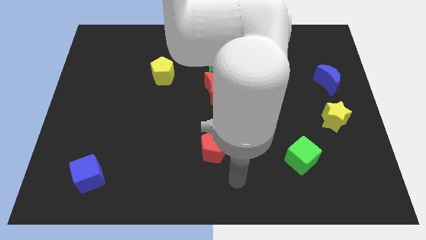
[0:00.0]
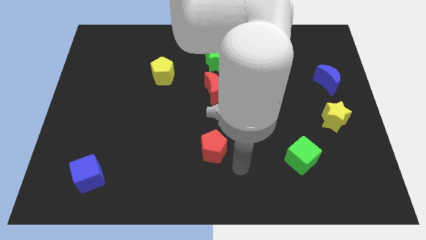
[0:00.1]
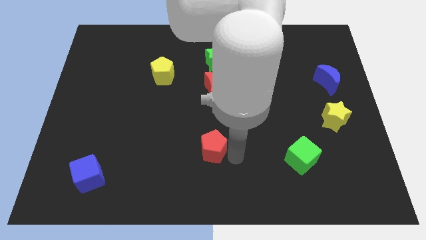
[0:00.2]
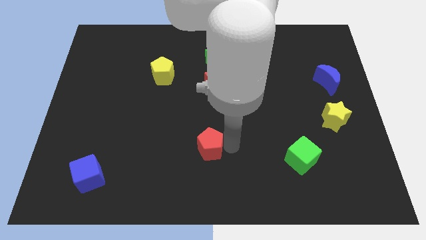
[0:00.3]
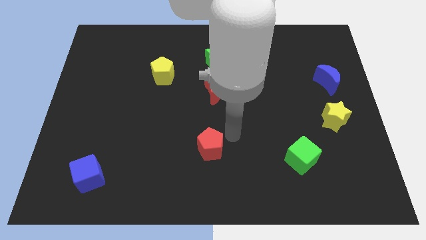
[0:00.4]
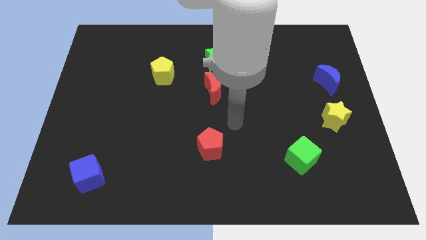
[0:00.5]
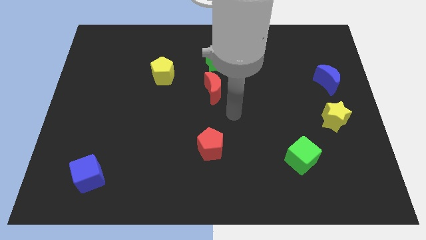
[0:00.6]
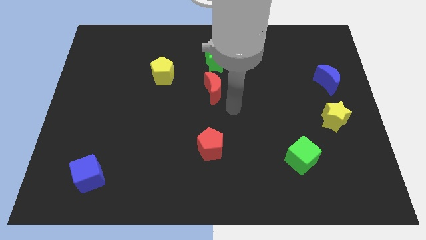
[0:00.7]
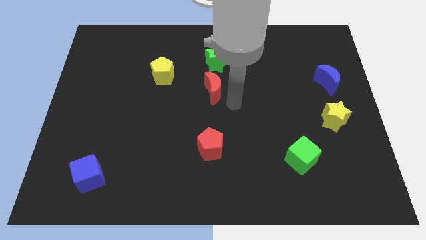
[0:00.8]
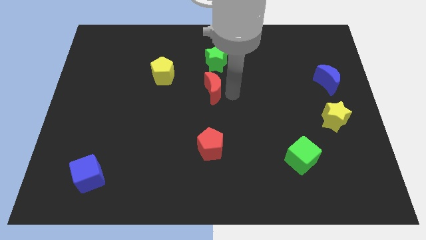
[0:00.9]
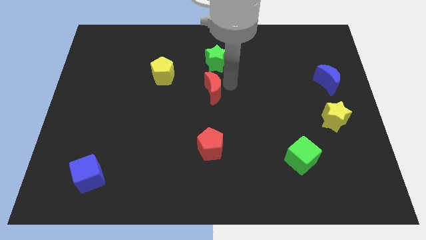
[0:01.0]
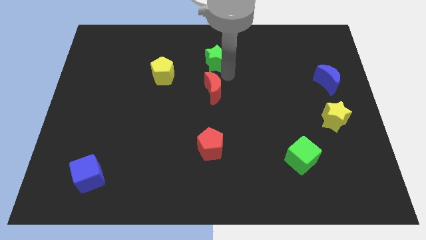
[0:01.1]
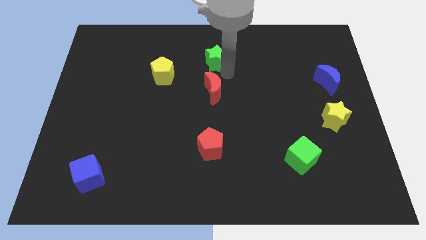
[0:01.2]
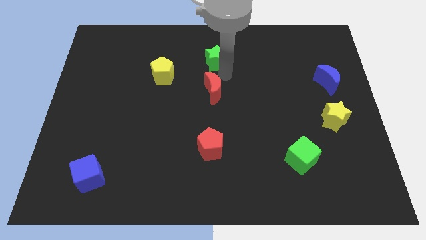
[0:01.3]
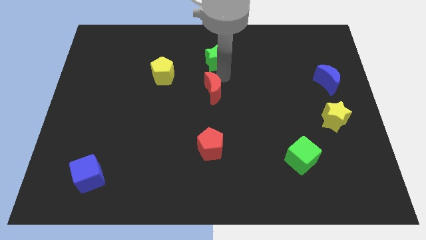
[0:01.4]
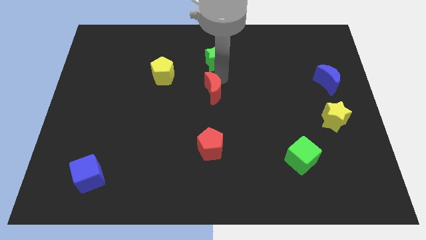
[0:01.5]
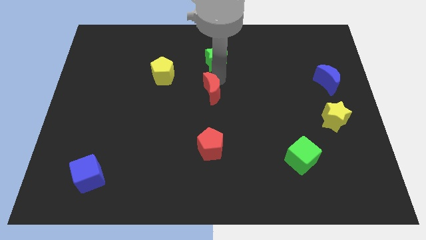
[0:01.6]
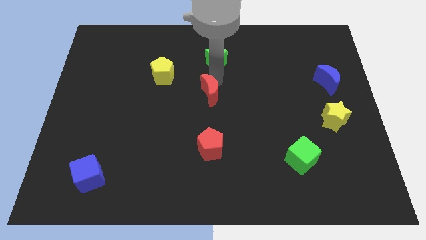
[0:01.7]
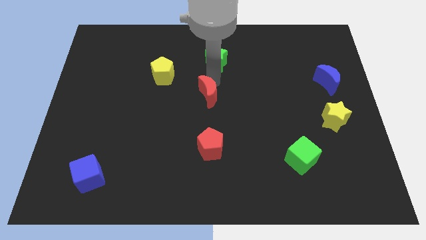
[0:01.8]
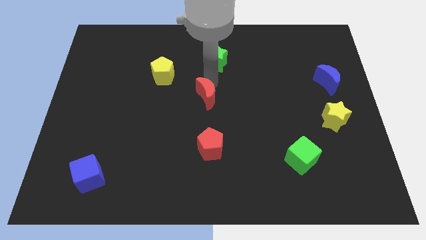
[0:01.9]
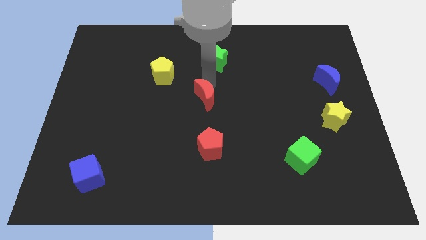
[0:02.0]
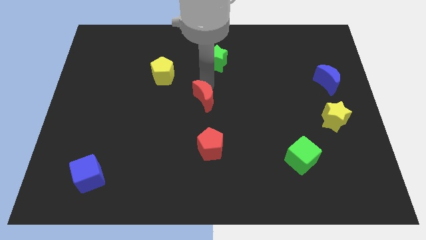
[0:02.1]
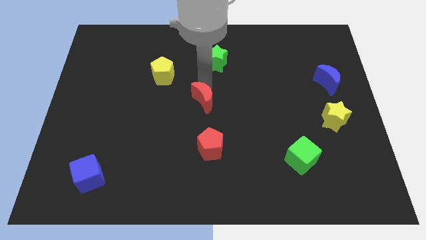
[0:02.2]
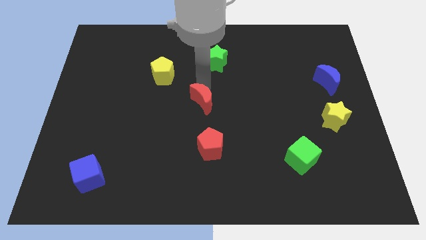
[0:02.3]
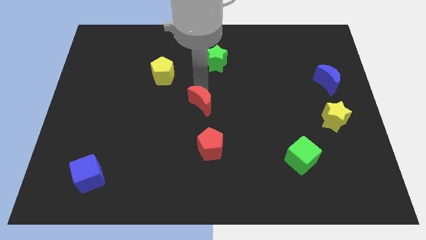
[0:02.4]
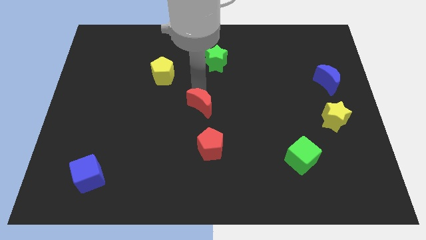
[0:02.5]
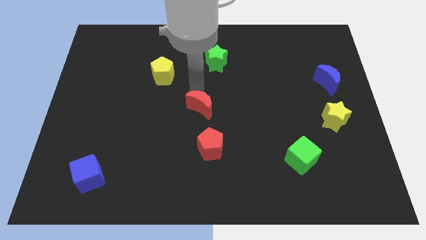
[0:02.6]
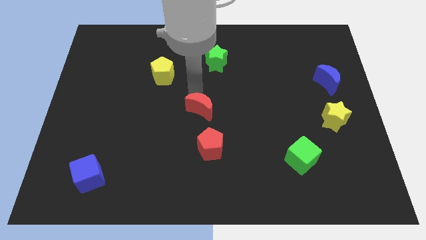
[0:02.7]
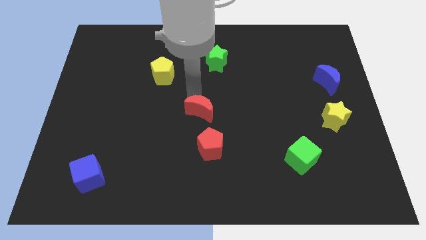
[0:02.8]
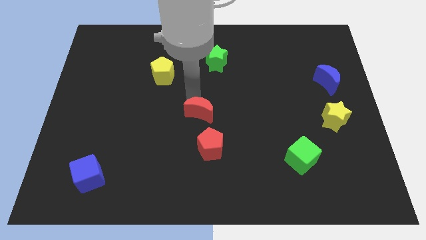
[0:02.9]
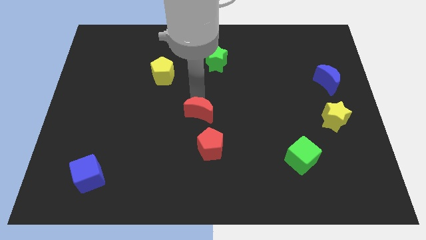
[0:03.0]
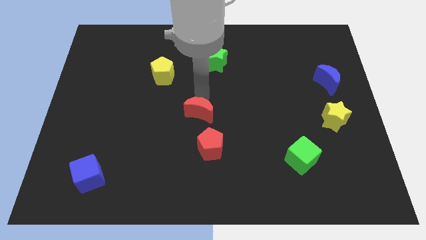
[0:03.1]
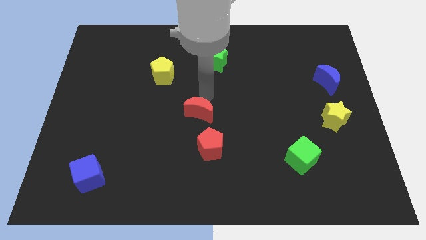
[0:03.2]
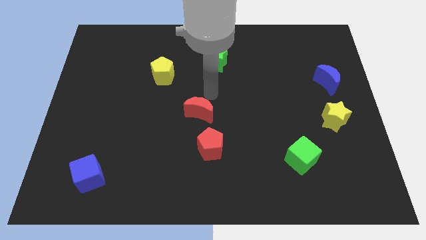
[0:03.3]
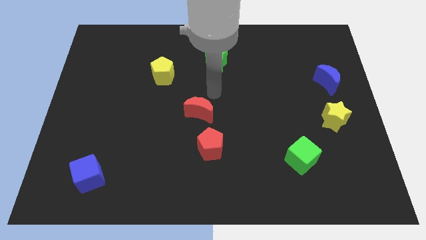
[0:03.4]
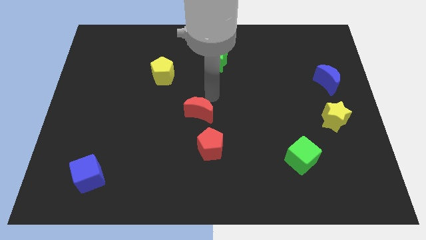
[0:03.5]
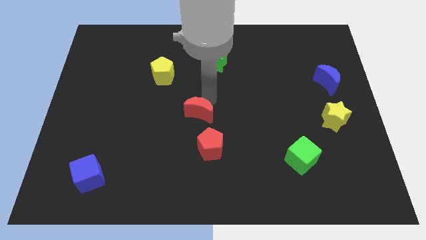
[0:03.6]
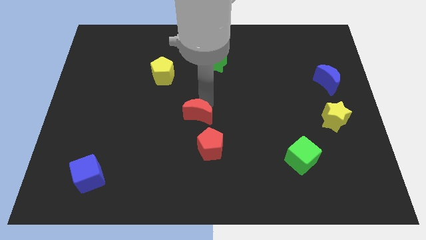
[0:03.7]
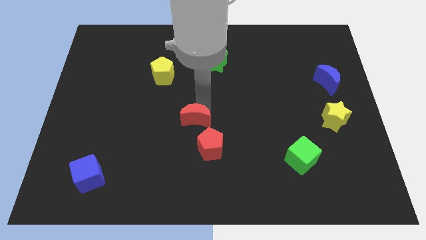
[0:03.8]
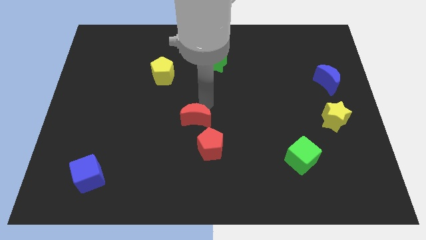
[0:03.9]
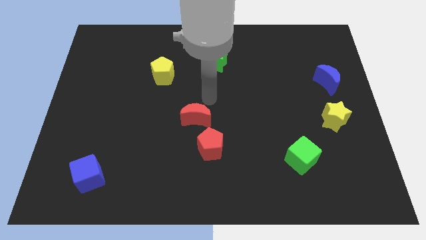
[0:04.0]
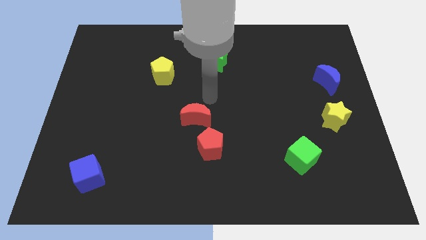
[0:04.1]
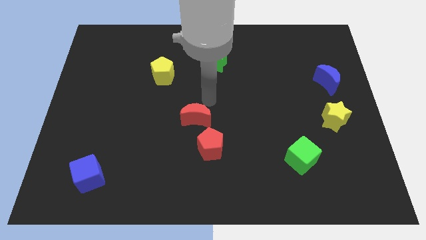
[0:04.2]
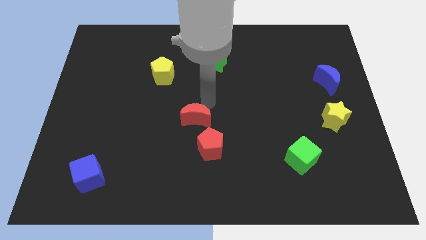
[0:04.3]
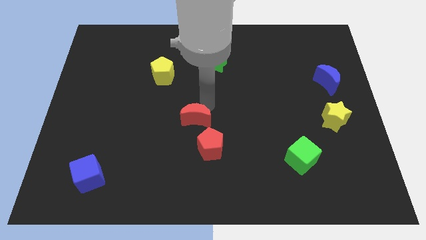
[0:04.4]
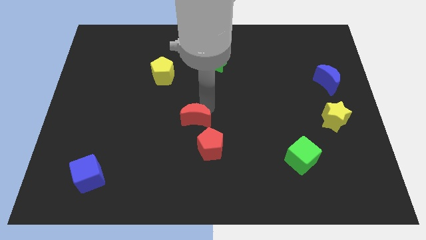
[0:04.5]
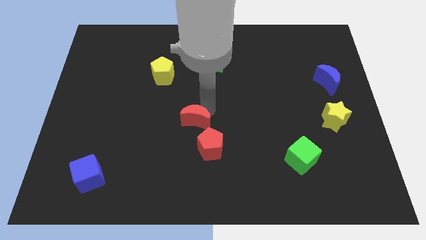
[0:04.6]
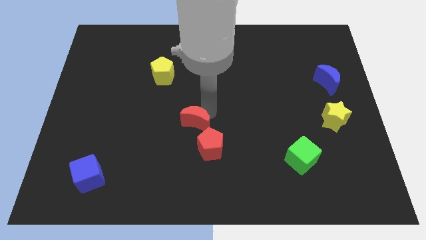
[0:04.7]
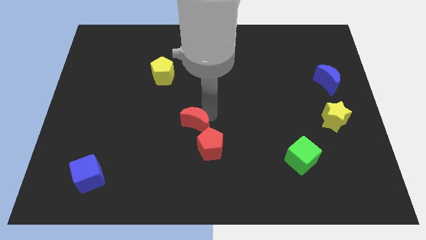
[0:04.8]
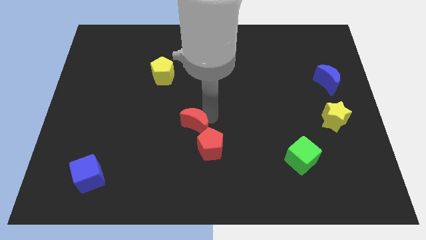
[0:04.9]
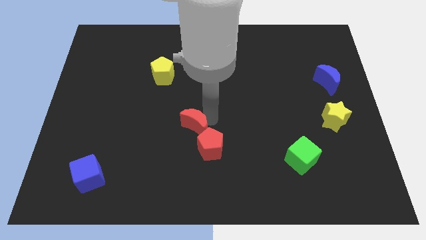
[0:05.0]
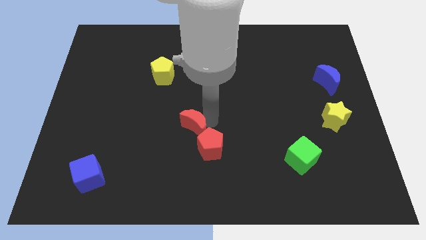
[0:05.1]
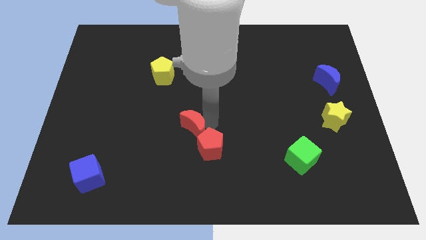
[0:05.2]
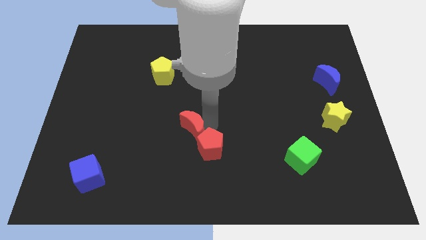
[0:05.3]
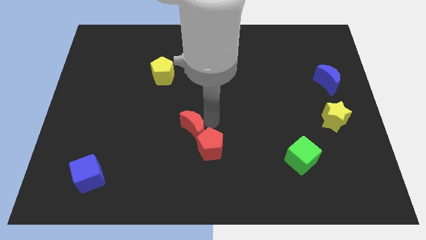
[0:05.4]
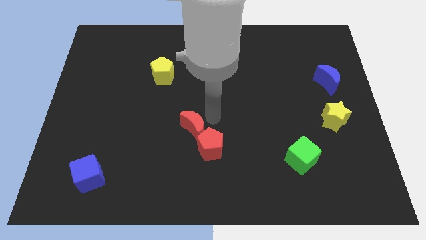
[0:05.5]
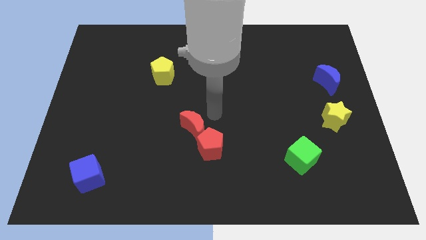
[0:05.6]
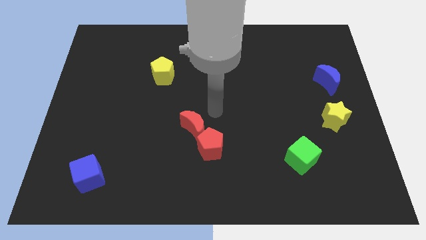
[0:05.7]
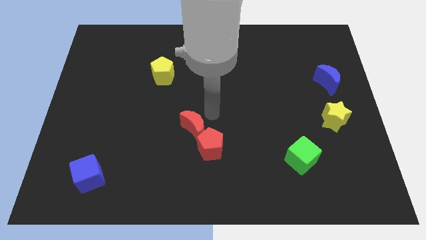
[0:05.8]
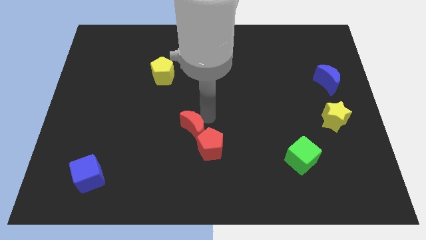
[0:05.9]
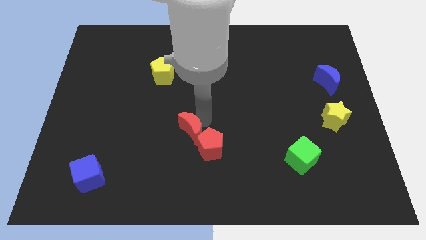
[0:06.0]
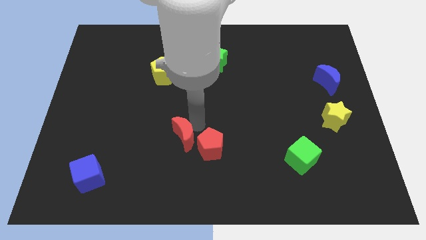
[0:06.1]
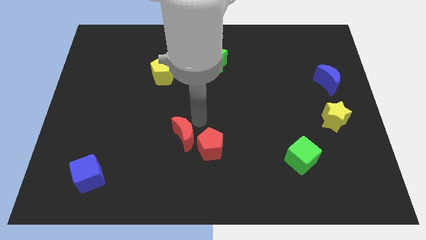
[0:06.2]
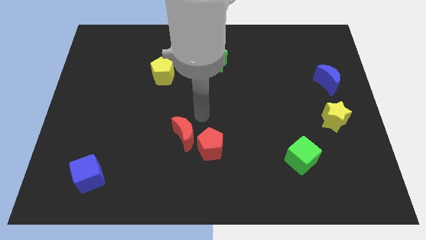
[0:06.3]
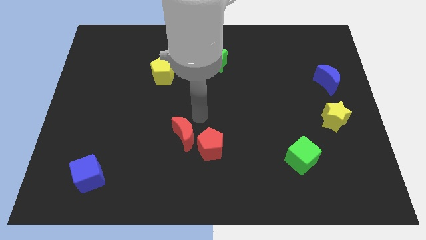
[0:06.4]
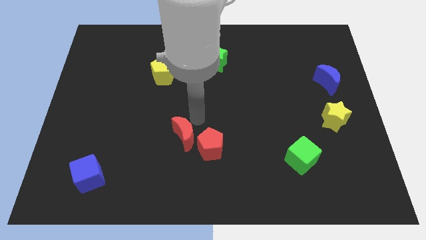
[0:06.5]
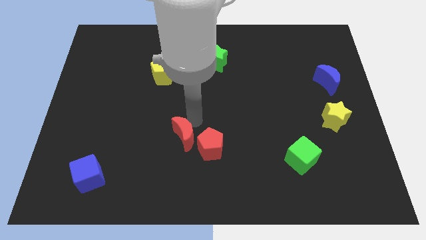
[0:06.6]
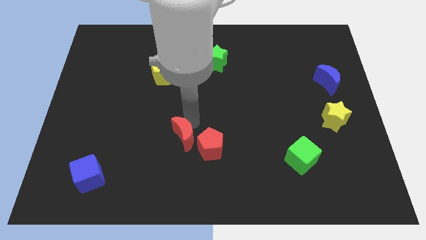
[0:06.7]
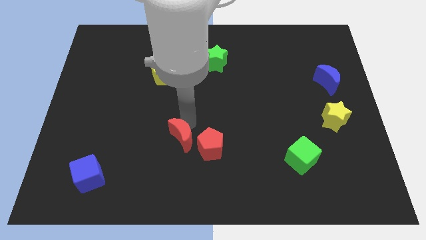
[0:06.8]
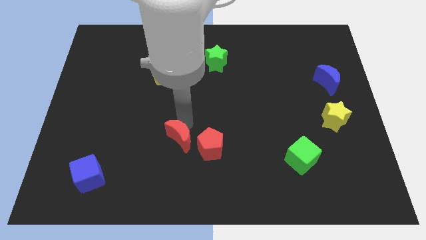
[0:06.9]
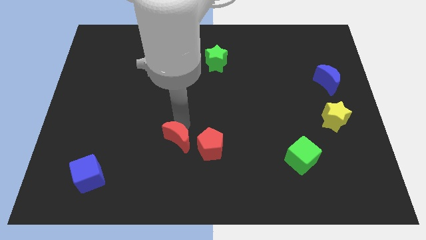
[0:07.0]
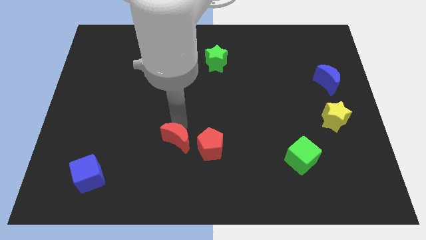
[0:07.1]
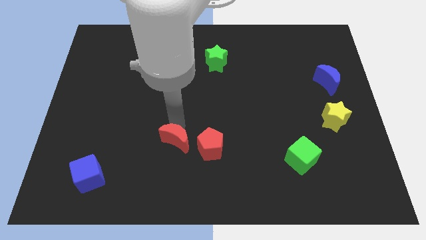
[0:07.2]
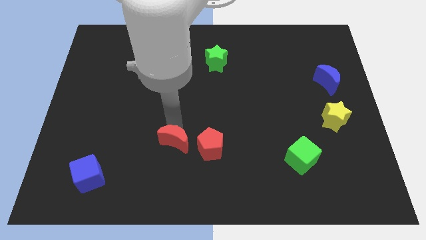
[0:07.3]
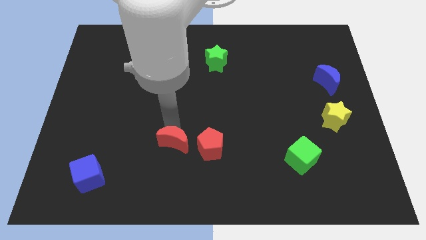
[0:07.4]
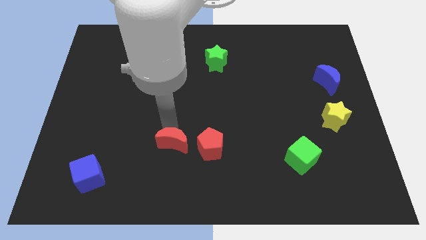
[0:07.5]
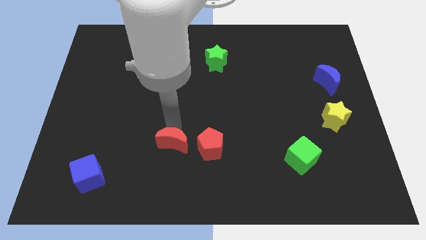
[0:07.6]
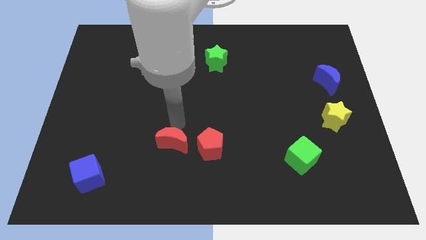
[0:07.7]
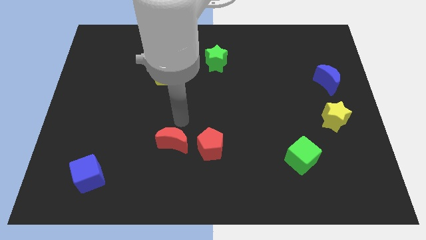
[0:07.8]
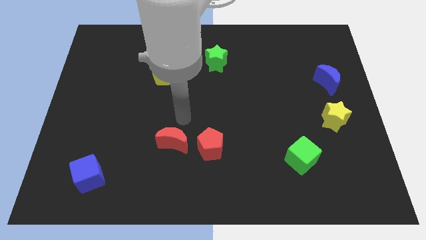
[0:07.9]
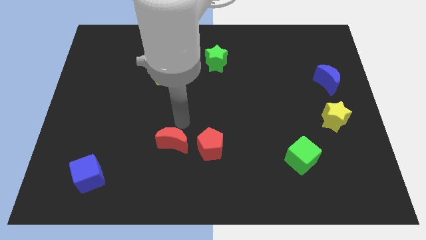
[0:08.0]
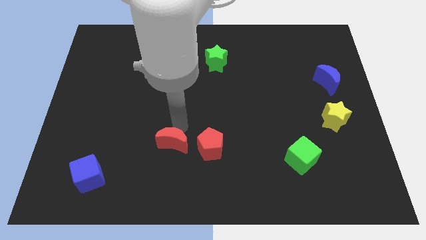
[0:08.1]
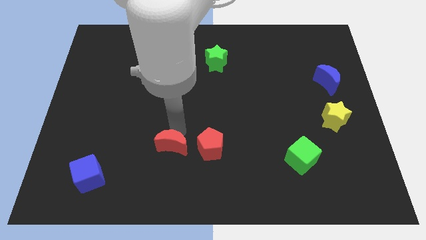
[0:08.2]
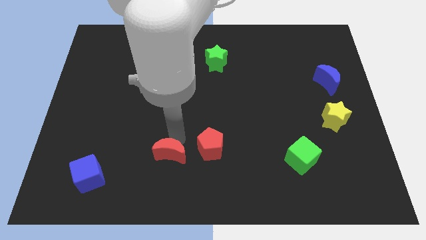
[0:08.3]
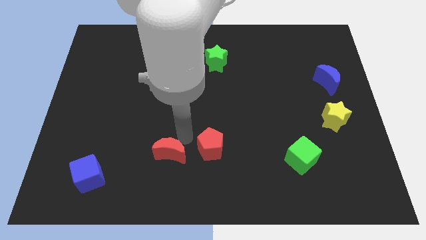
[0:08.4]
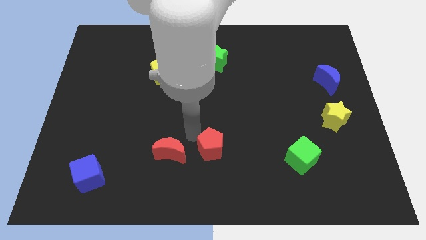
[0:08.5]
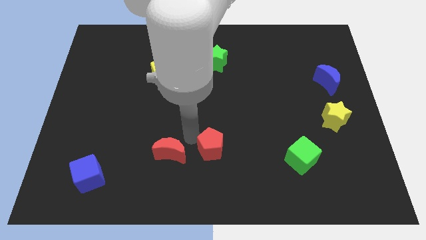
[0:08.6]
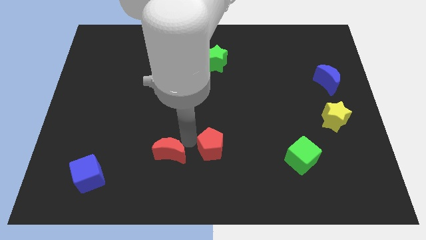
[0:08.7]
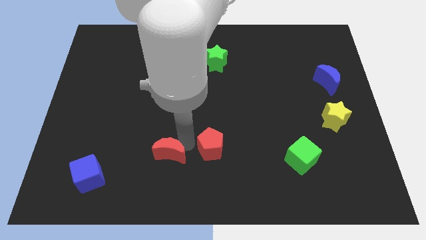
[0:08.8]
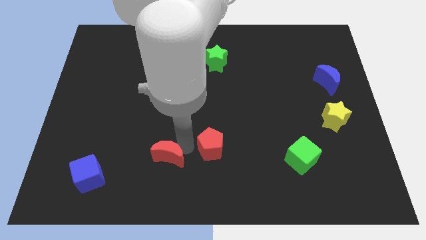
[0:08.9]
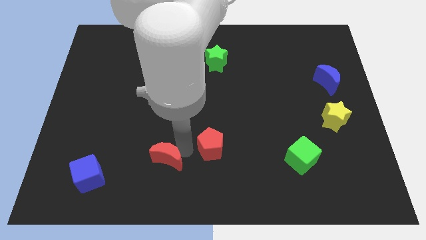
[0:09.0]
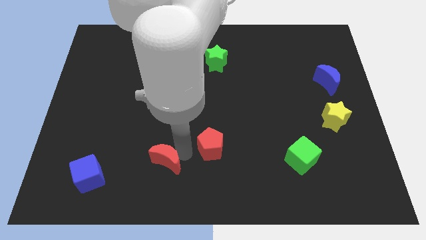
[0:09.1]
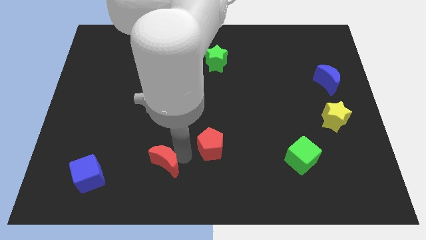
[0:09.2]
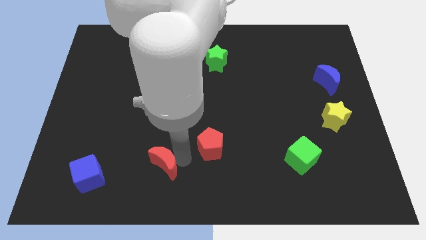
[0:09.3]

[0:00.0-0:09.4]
put the red moon right of the blue cube
